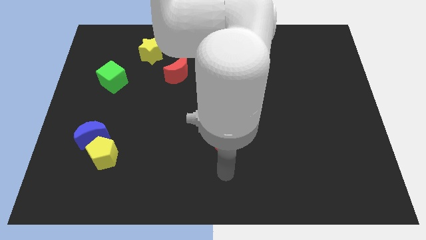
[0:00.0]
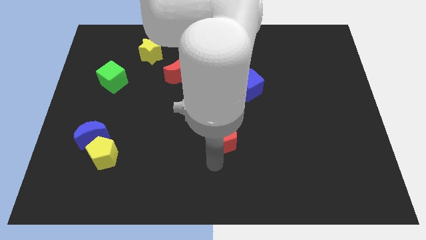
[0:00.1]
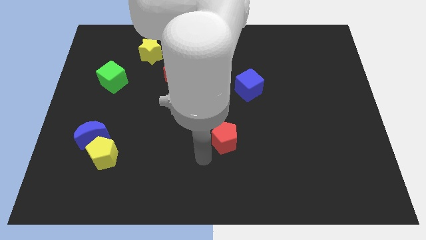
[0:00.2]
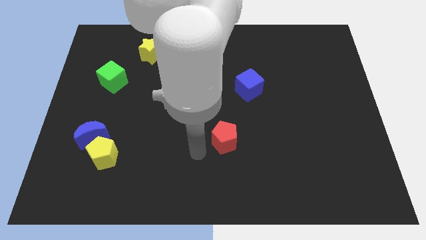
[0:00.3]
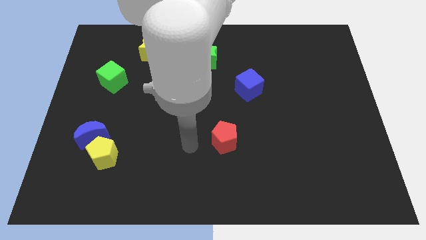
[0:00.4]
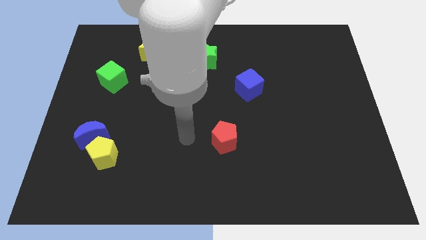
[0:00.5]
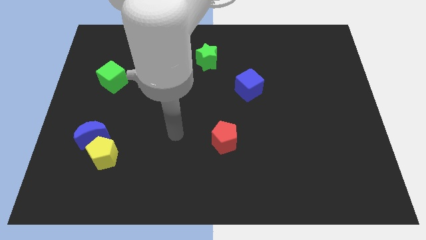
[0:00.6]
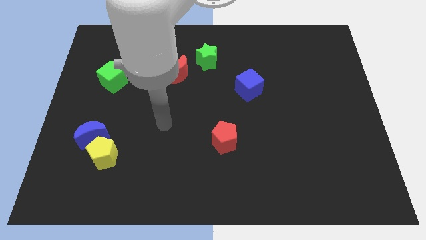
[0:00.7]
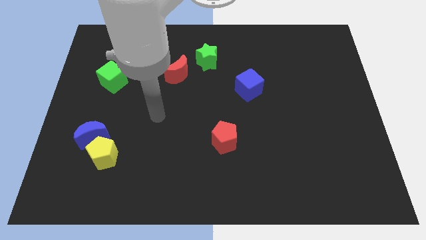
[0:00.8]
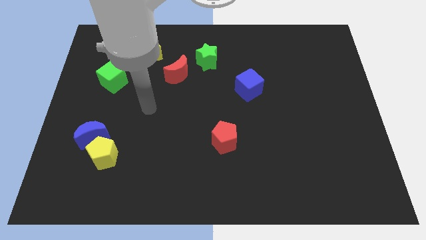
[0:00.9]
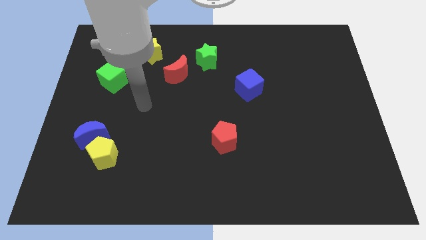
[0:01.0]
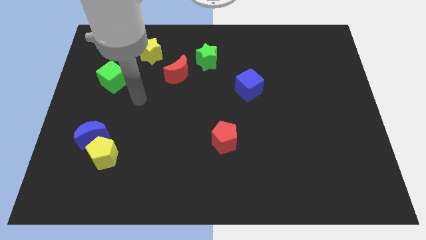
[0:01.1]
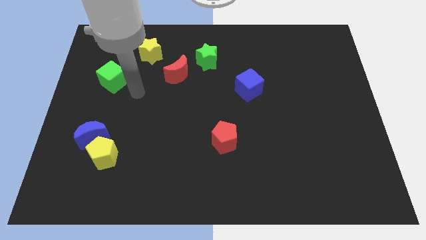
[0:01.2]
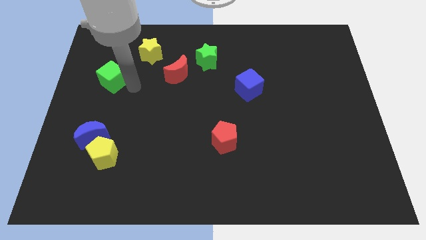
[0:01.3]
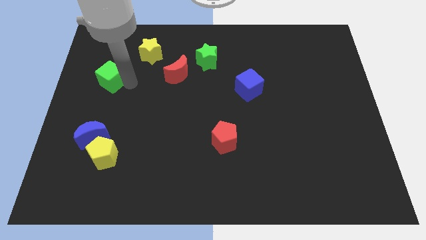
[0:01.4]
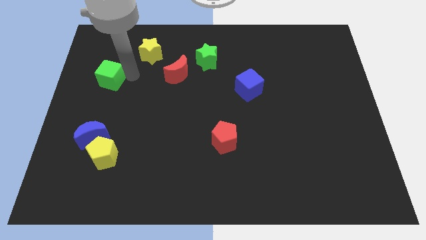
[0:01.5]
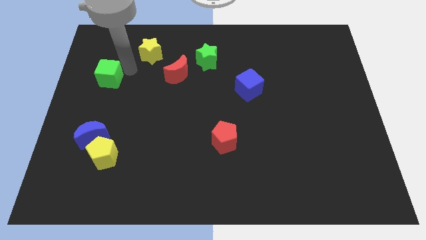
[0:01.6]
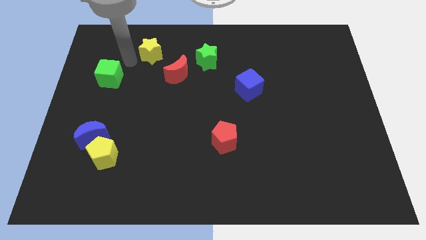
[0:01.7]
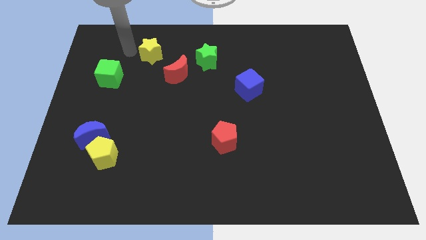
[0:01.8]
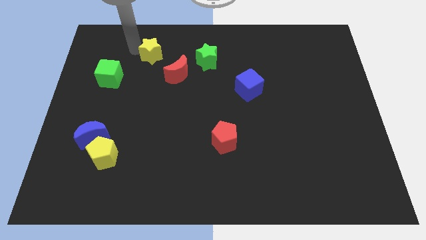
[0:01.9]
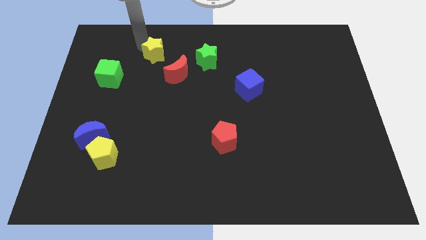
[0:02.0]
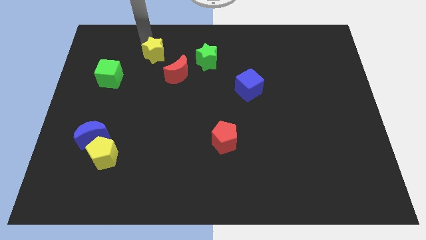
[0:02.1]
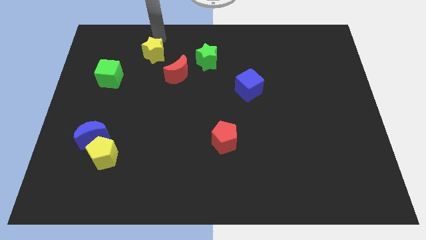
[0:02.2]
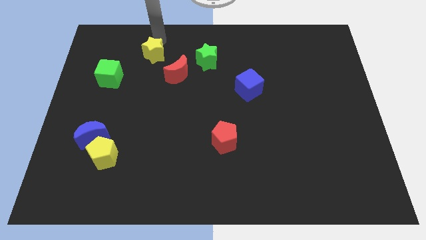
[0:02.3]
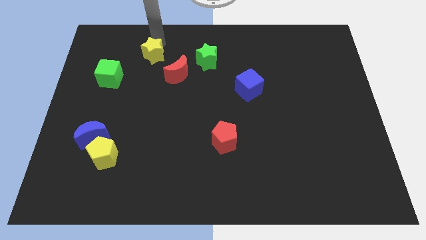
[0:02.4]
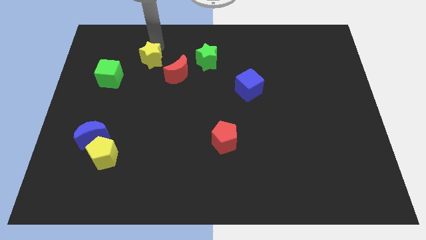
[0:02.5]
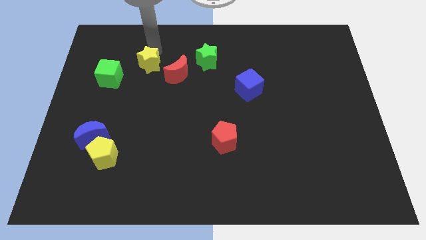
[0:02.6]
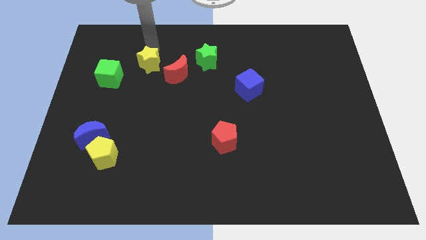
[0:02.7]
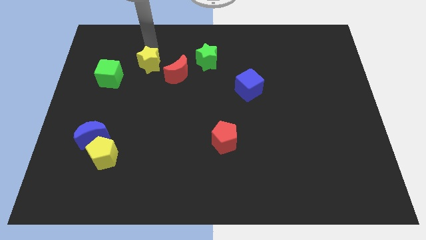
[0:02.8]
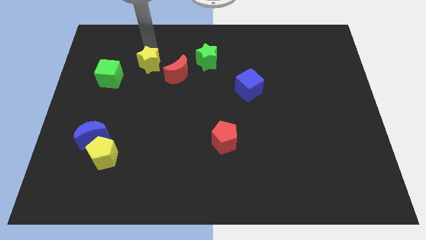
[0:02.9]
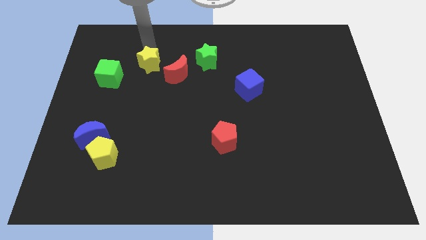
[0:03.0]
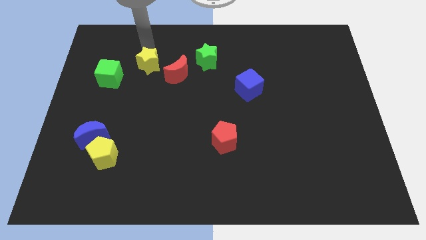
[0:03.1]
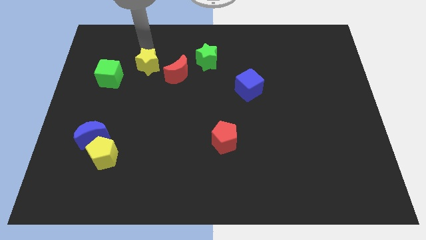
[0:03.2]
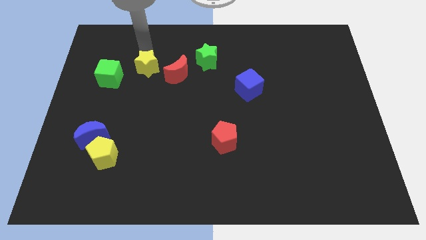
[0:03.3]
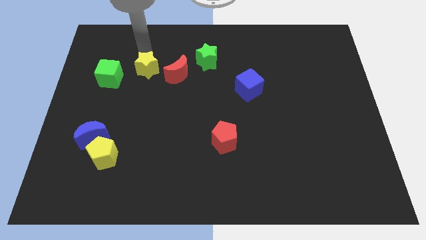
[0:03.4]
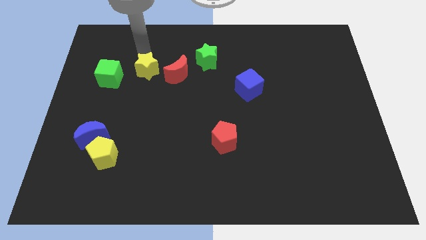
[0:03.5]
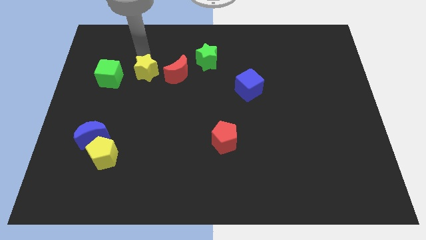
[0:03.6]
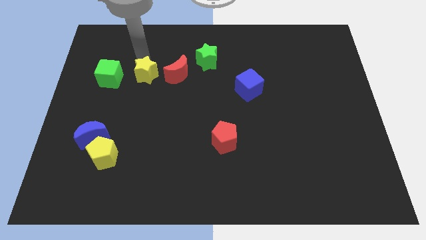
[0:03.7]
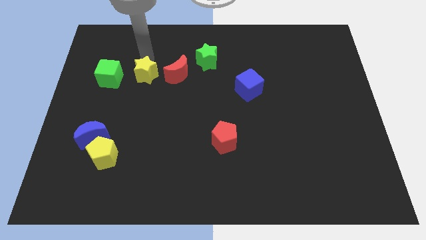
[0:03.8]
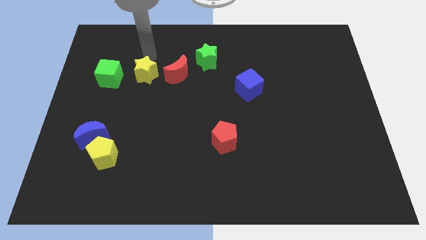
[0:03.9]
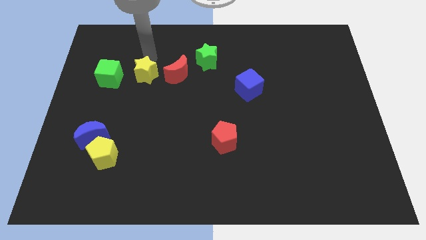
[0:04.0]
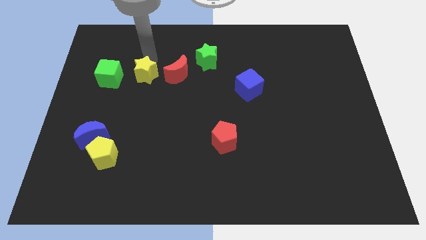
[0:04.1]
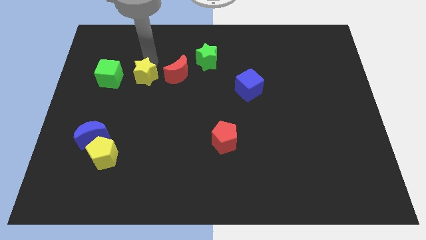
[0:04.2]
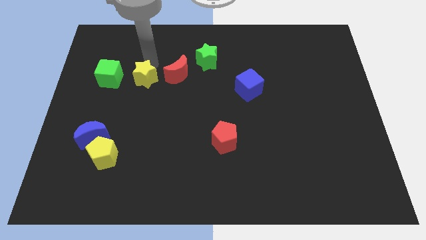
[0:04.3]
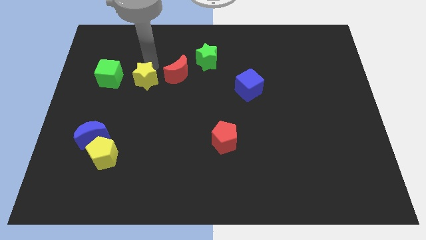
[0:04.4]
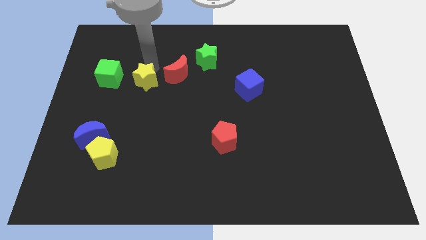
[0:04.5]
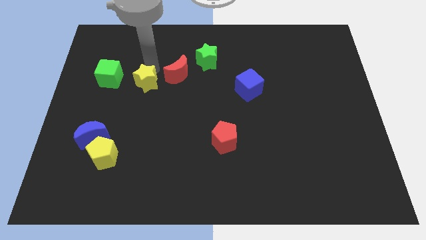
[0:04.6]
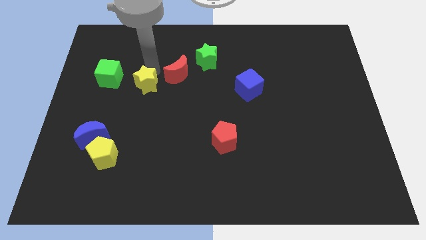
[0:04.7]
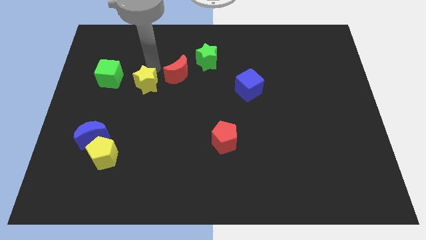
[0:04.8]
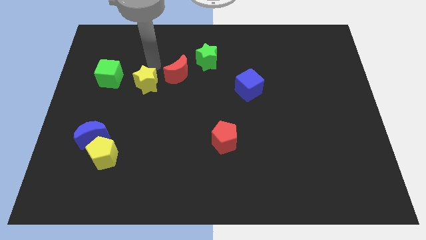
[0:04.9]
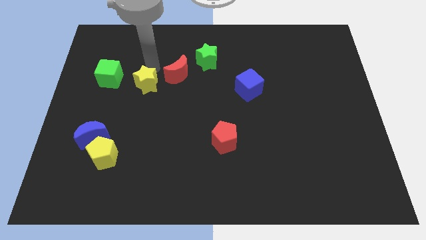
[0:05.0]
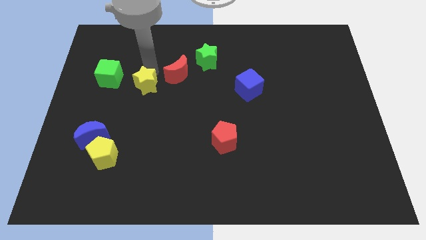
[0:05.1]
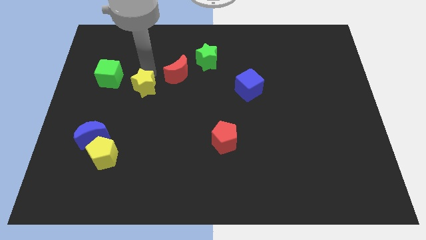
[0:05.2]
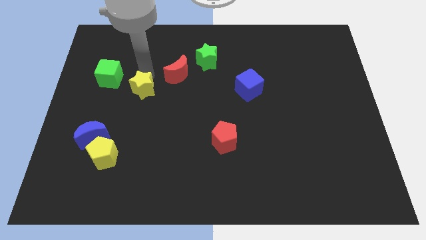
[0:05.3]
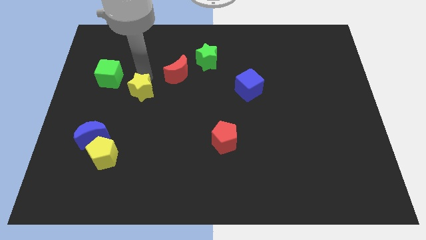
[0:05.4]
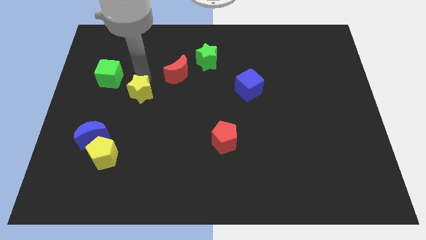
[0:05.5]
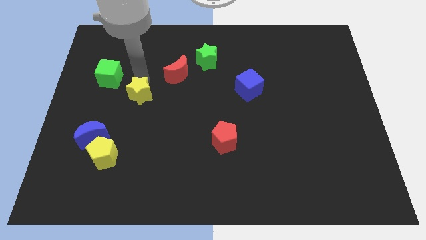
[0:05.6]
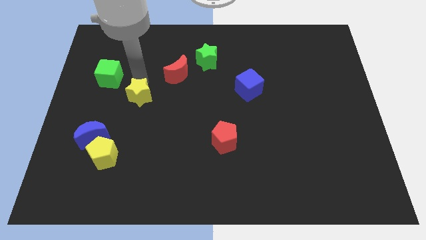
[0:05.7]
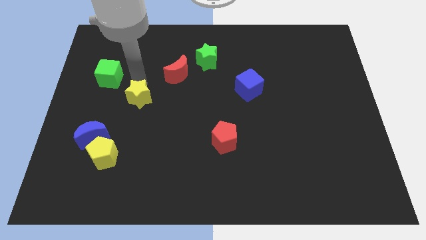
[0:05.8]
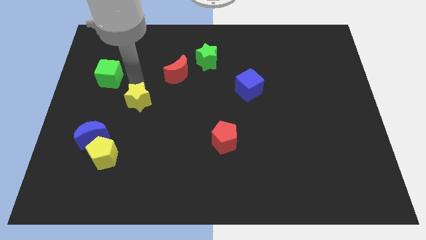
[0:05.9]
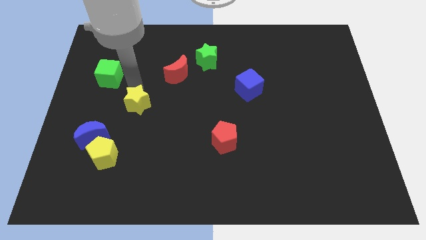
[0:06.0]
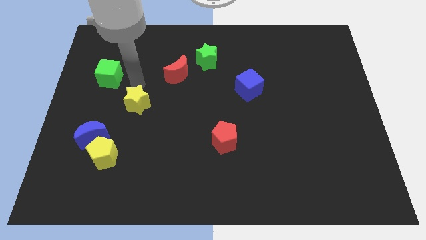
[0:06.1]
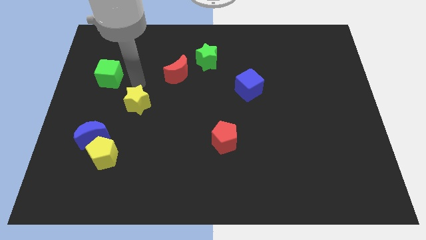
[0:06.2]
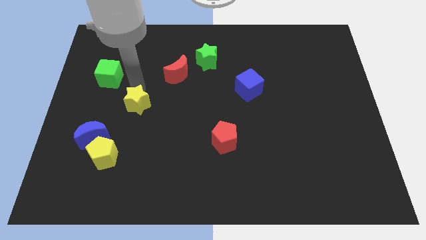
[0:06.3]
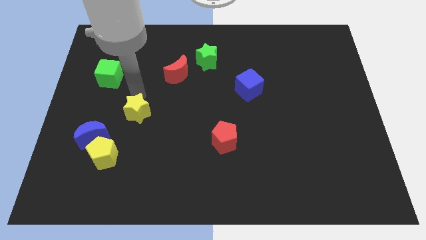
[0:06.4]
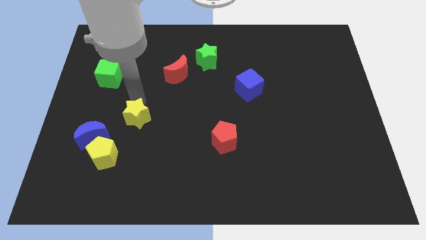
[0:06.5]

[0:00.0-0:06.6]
push the yellow star down

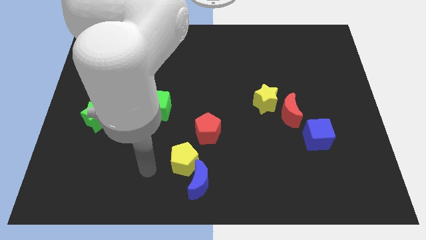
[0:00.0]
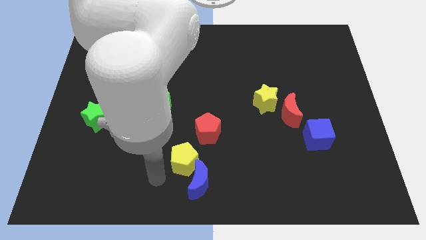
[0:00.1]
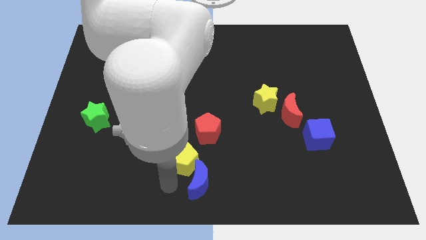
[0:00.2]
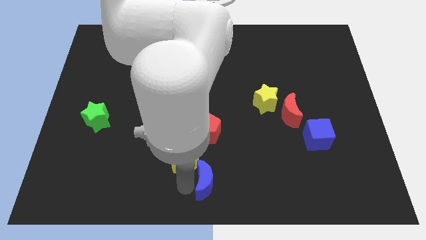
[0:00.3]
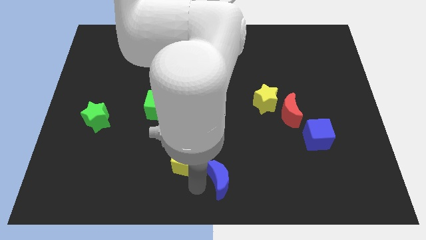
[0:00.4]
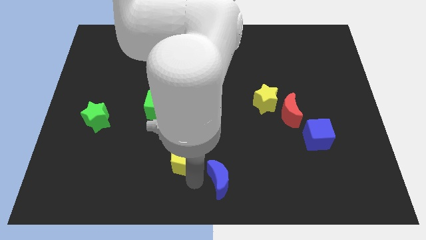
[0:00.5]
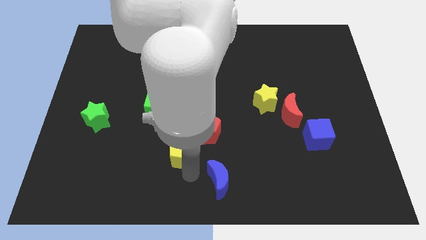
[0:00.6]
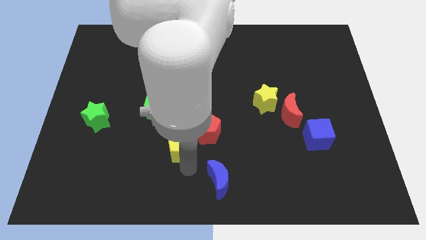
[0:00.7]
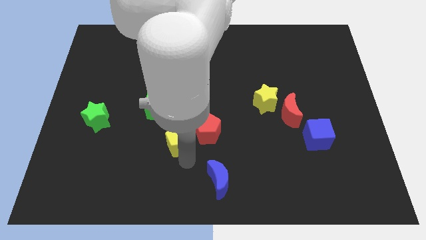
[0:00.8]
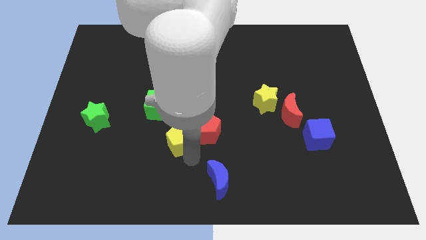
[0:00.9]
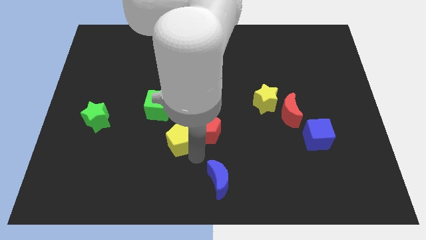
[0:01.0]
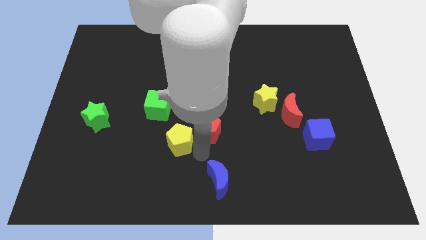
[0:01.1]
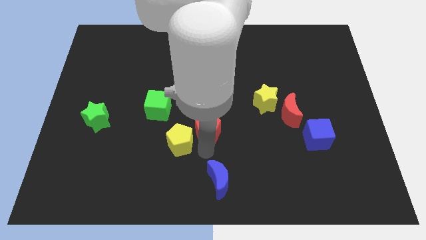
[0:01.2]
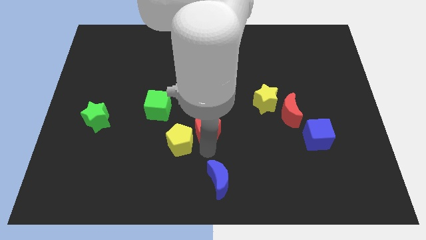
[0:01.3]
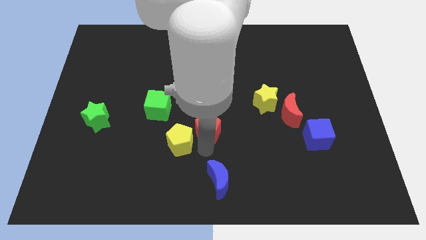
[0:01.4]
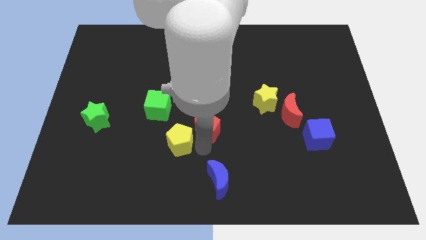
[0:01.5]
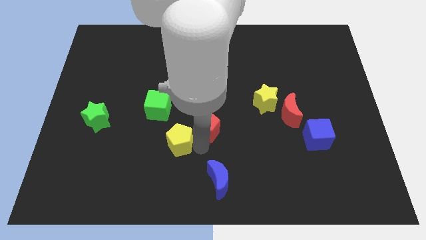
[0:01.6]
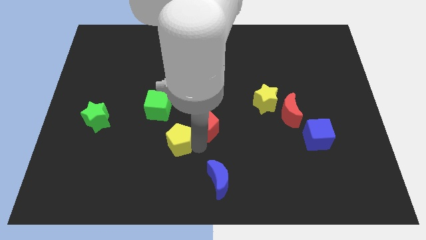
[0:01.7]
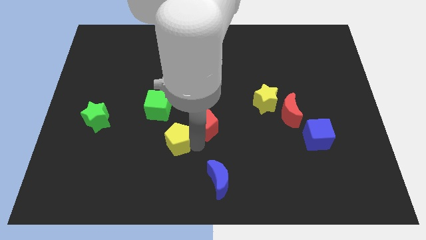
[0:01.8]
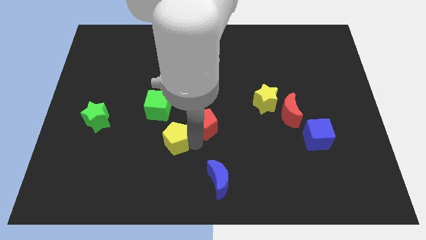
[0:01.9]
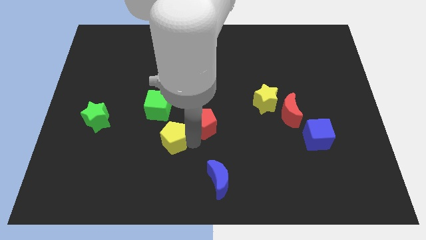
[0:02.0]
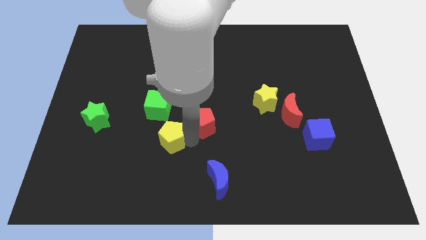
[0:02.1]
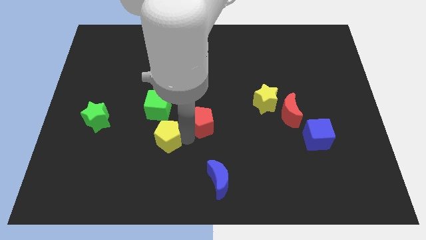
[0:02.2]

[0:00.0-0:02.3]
slightly slide the yellow pentagon up and to the left
